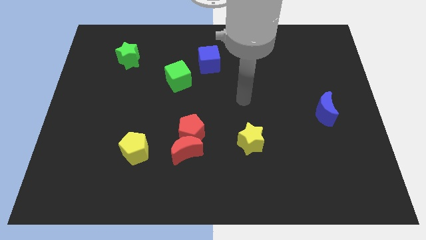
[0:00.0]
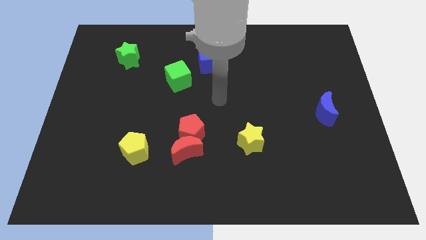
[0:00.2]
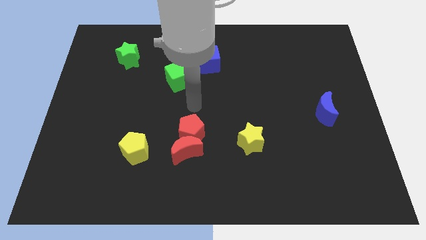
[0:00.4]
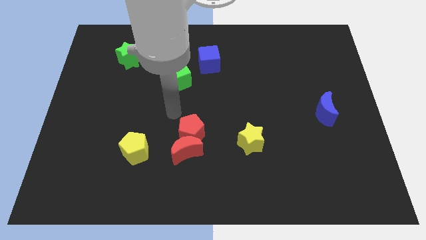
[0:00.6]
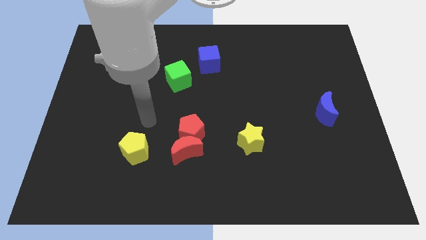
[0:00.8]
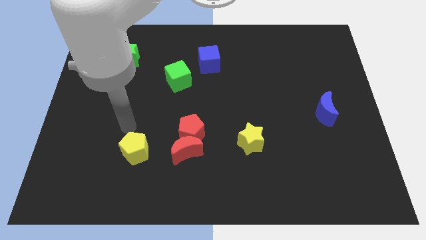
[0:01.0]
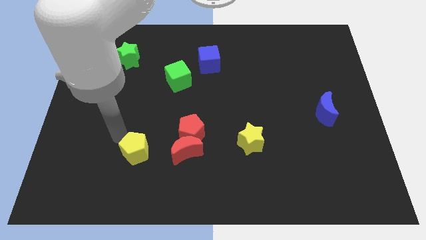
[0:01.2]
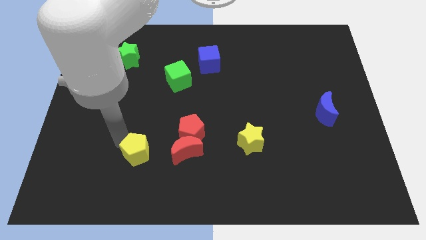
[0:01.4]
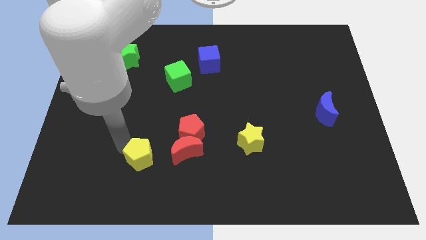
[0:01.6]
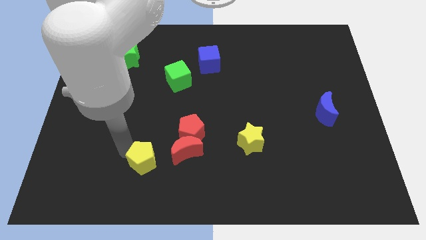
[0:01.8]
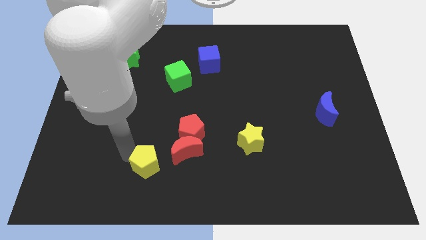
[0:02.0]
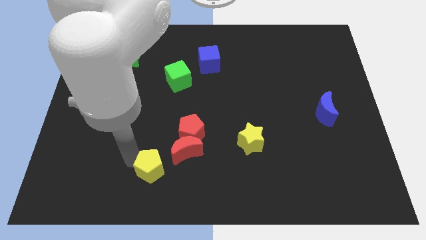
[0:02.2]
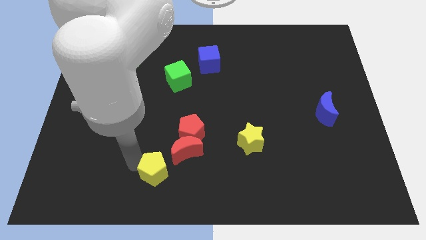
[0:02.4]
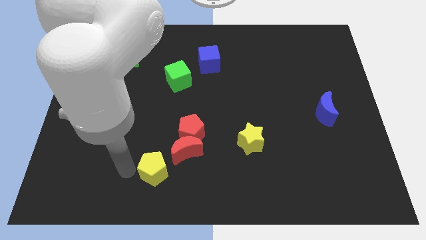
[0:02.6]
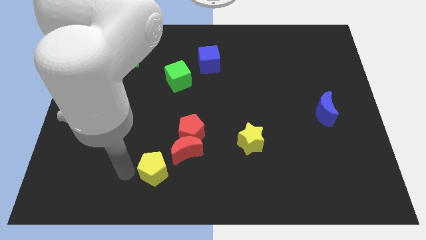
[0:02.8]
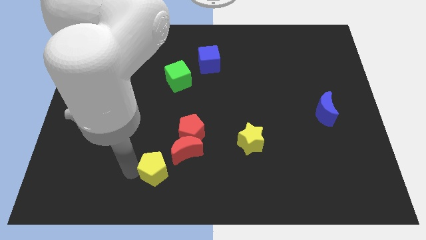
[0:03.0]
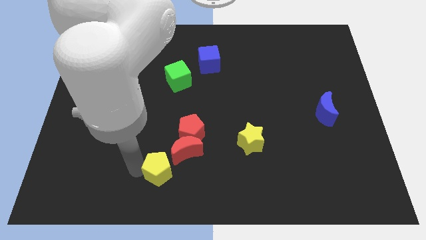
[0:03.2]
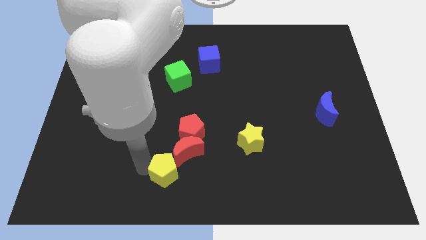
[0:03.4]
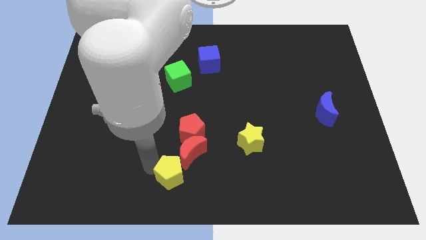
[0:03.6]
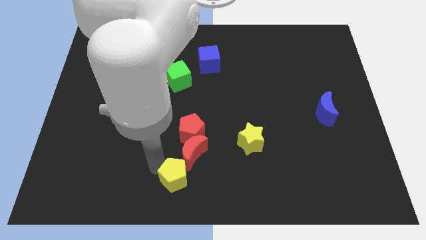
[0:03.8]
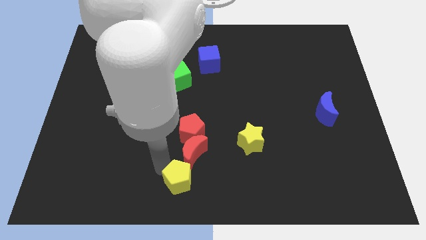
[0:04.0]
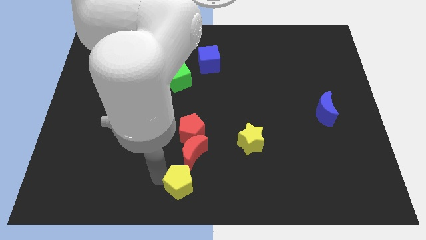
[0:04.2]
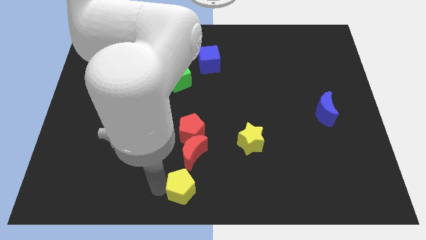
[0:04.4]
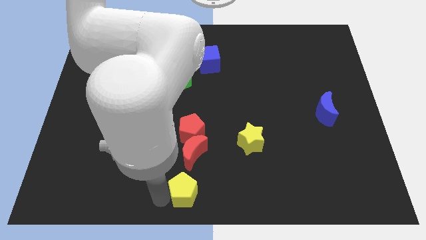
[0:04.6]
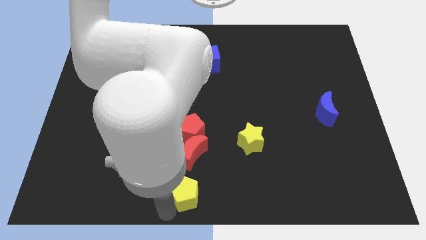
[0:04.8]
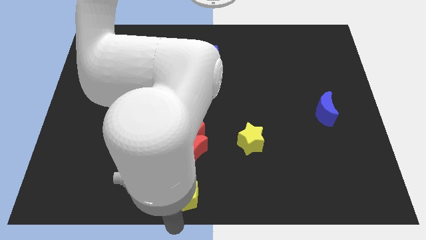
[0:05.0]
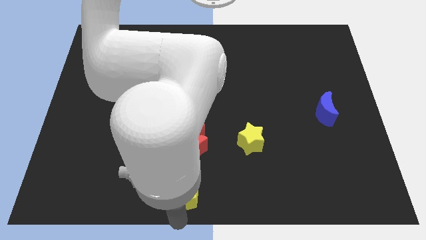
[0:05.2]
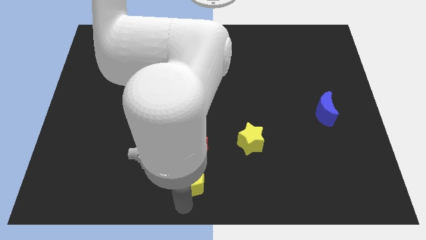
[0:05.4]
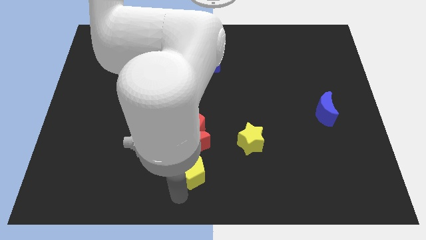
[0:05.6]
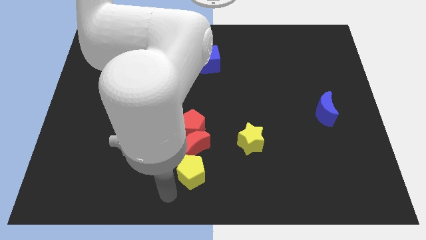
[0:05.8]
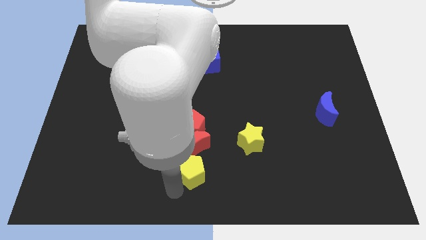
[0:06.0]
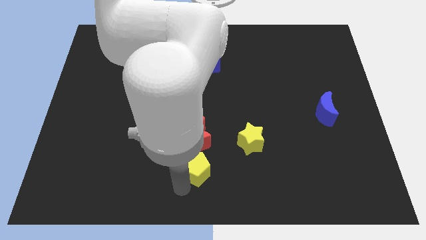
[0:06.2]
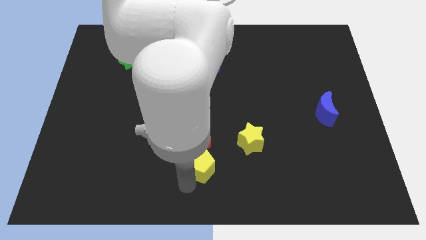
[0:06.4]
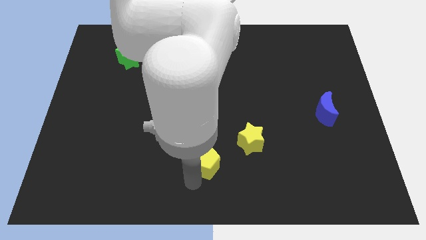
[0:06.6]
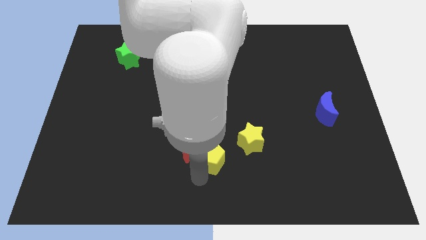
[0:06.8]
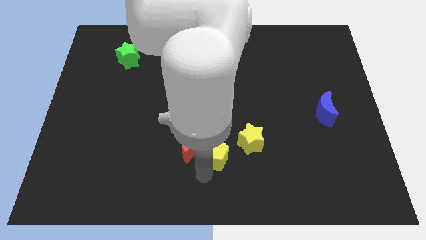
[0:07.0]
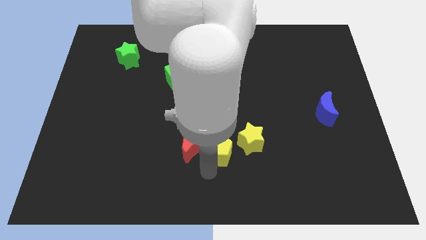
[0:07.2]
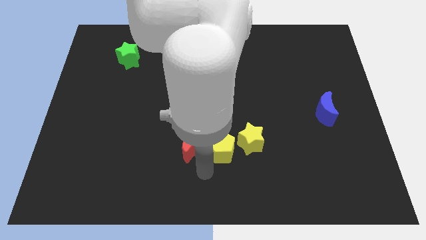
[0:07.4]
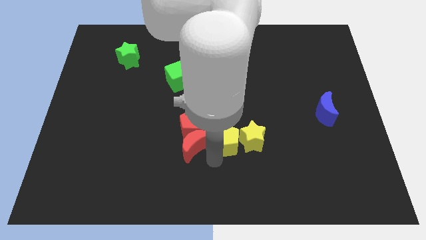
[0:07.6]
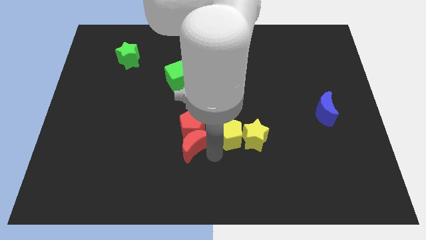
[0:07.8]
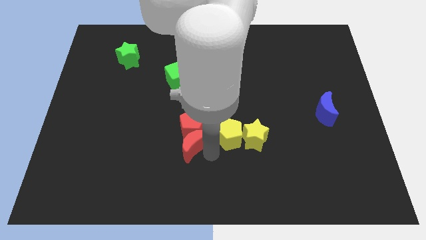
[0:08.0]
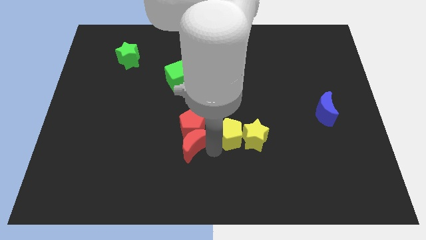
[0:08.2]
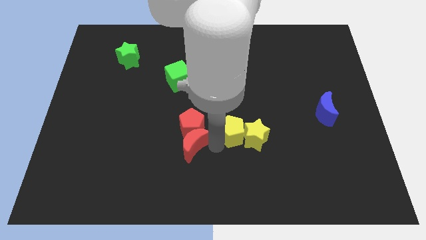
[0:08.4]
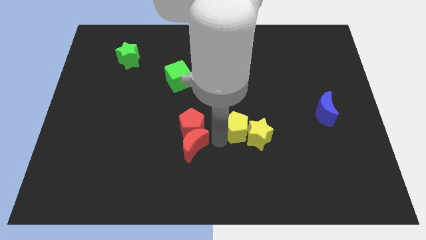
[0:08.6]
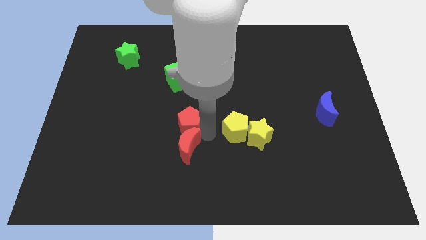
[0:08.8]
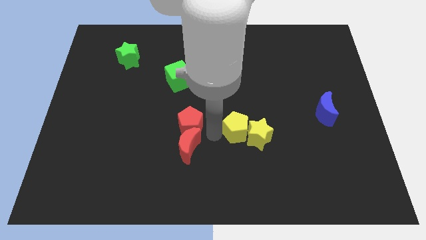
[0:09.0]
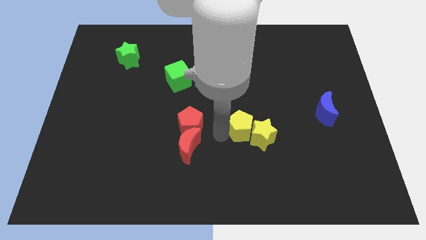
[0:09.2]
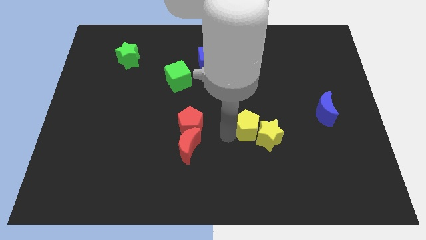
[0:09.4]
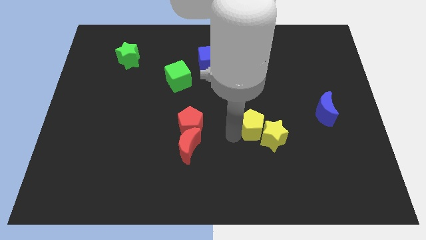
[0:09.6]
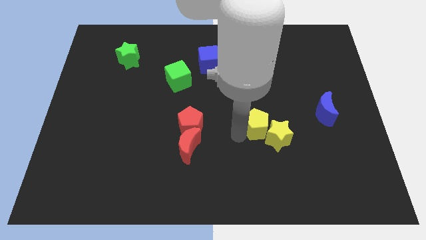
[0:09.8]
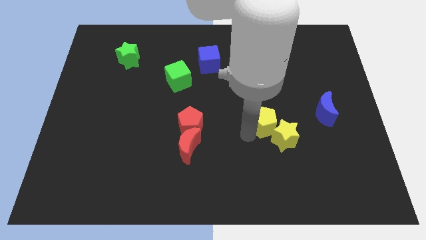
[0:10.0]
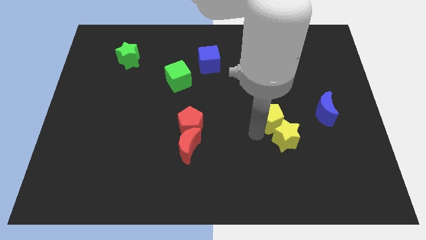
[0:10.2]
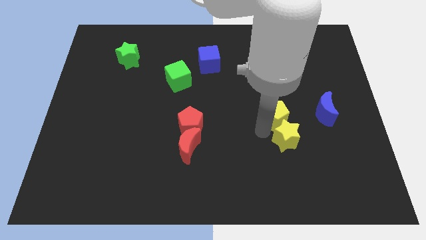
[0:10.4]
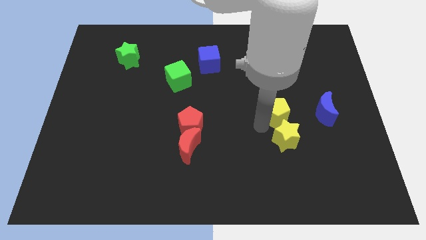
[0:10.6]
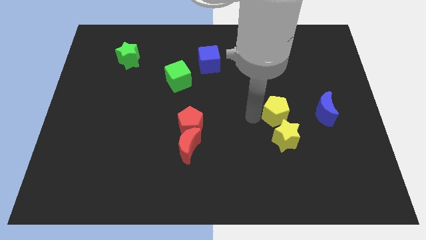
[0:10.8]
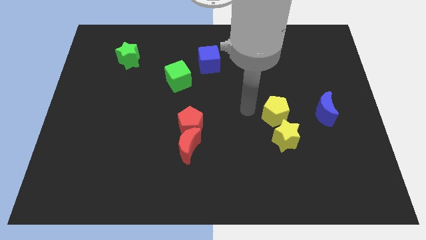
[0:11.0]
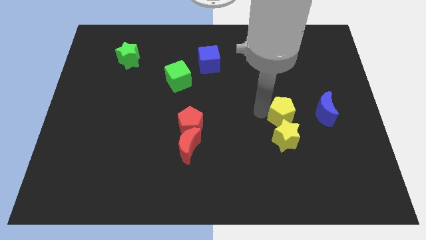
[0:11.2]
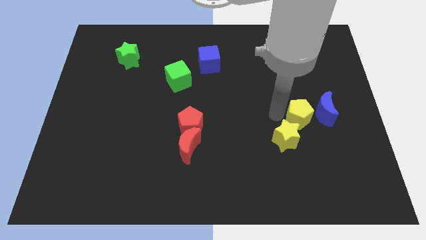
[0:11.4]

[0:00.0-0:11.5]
put the yellow pentagon close to the blue moon

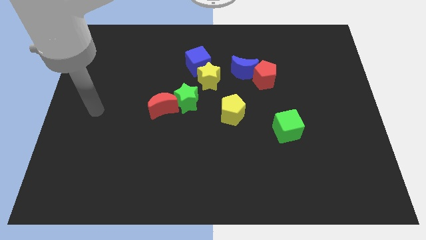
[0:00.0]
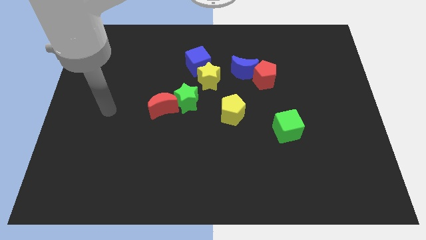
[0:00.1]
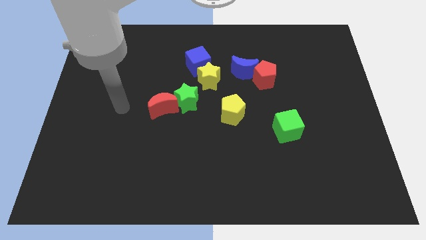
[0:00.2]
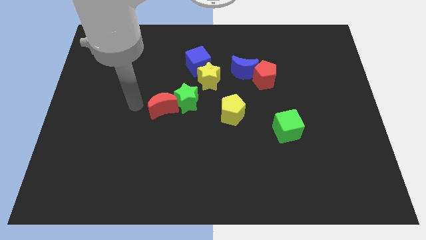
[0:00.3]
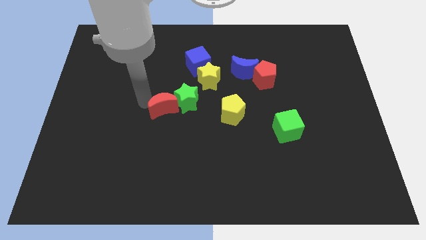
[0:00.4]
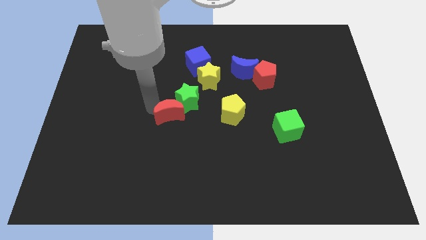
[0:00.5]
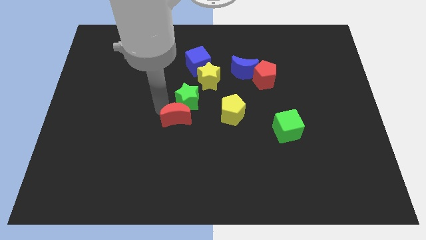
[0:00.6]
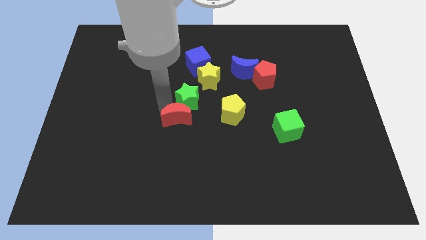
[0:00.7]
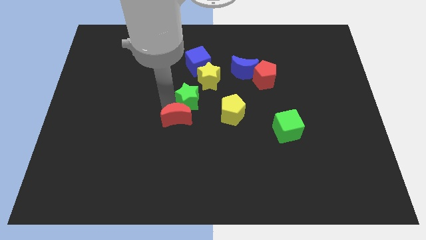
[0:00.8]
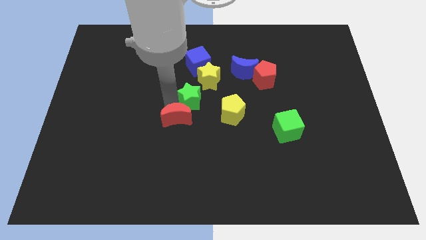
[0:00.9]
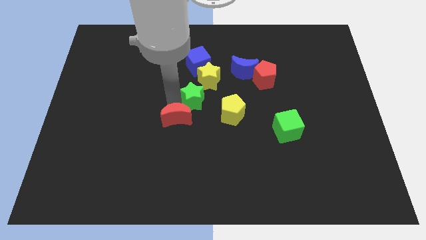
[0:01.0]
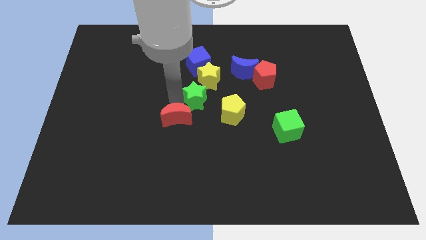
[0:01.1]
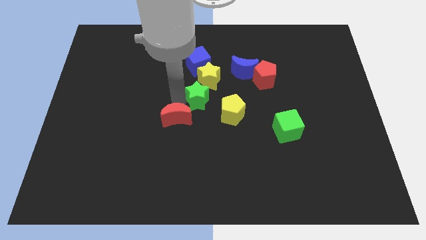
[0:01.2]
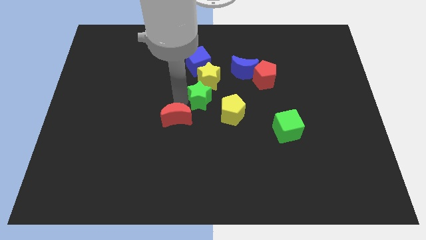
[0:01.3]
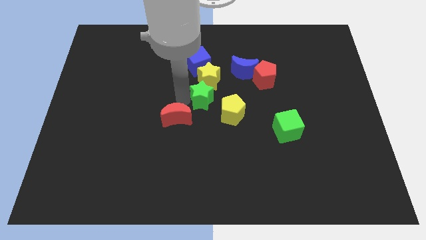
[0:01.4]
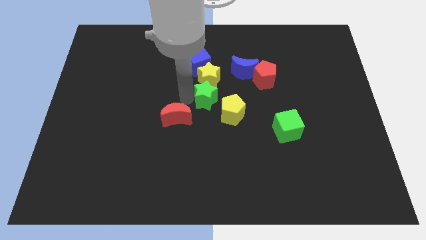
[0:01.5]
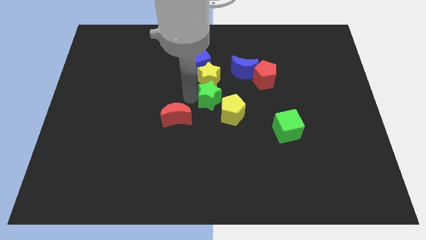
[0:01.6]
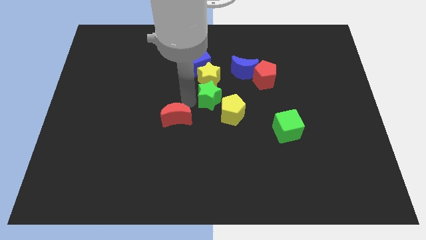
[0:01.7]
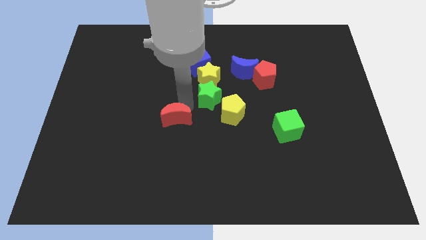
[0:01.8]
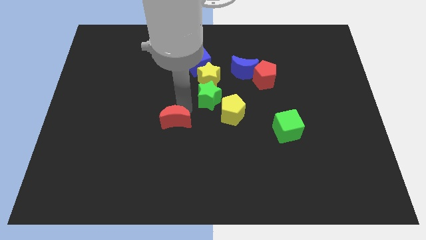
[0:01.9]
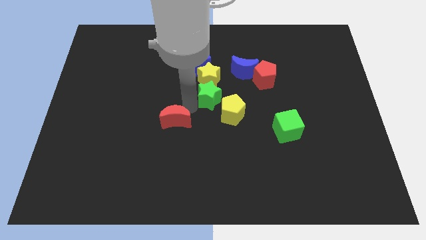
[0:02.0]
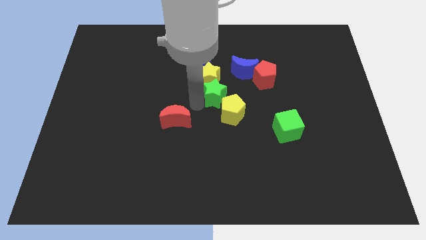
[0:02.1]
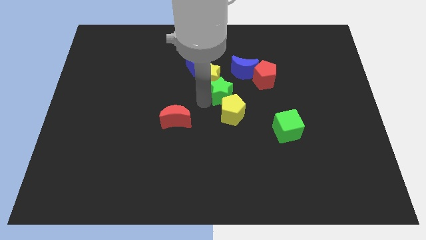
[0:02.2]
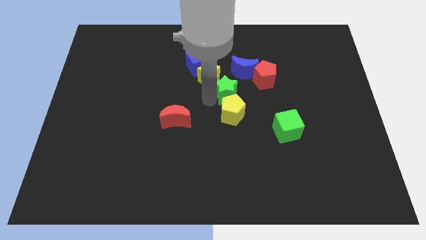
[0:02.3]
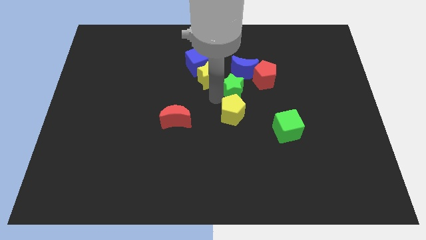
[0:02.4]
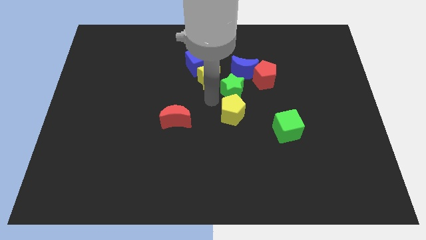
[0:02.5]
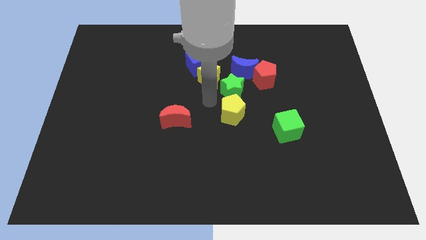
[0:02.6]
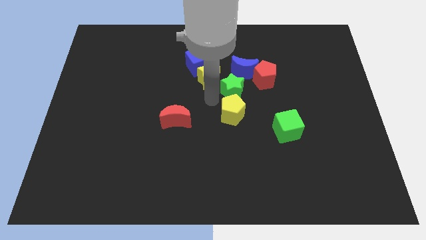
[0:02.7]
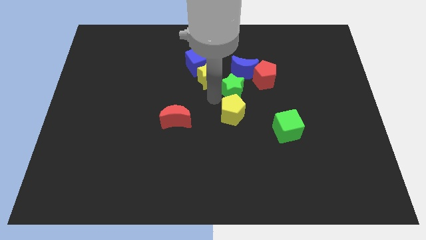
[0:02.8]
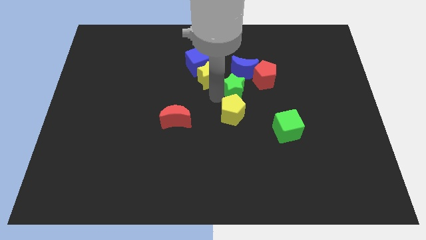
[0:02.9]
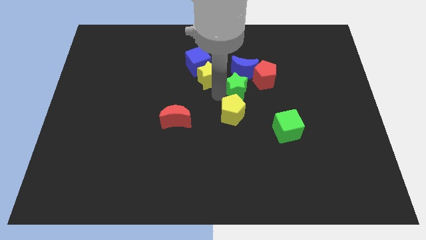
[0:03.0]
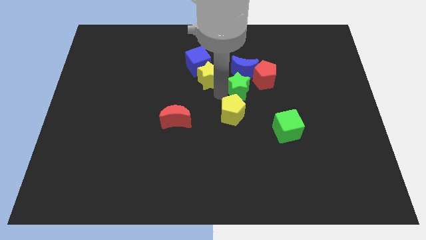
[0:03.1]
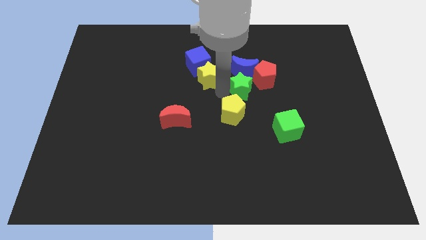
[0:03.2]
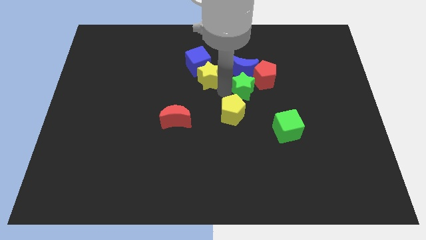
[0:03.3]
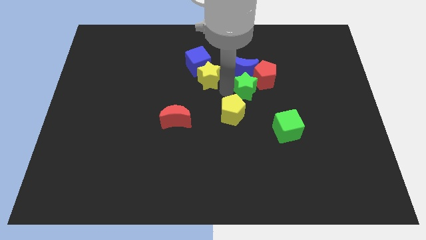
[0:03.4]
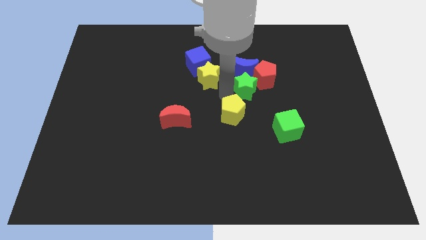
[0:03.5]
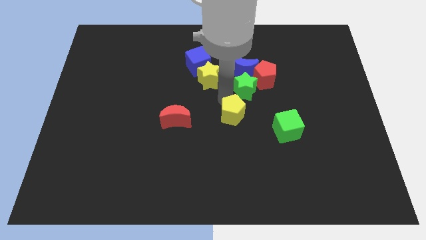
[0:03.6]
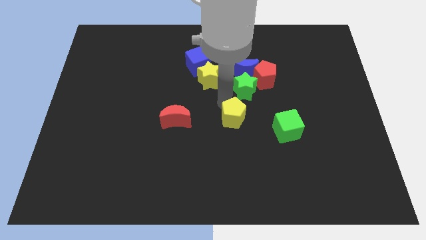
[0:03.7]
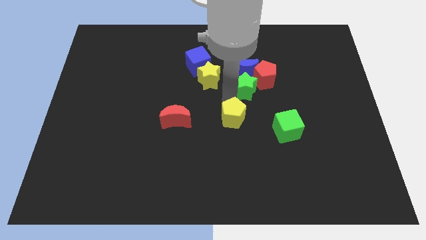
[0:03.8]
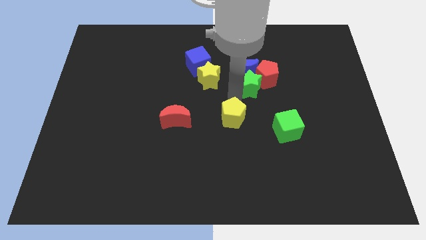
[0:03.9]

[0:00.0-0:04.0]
slide the green star close to the red pentagon
